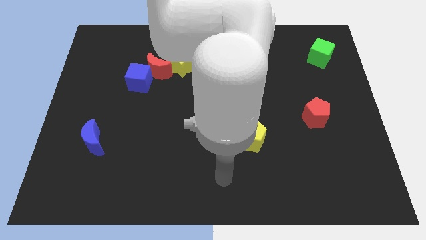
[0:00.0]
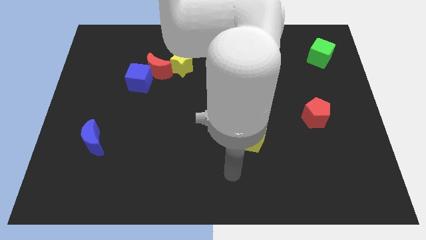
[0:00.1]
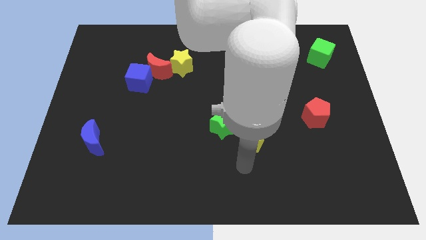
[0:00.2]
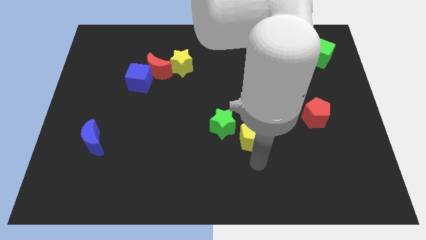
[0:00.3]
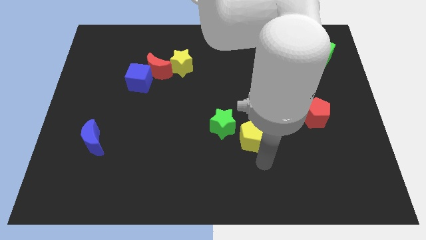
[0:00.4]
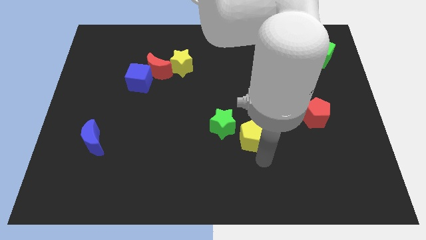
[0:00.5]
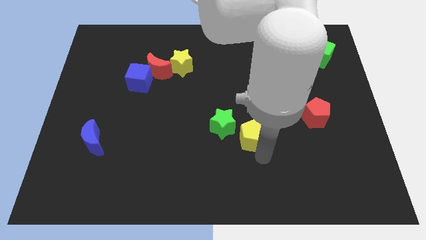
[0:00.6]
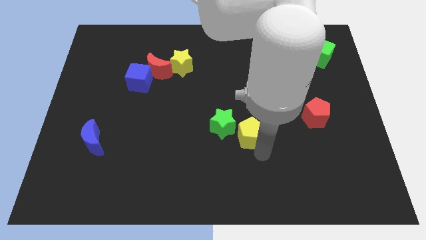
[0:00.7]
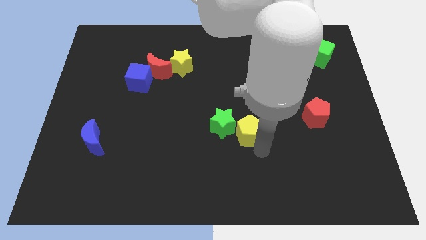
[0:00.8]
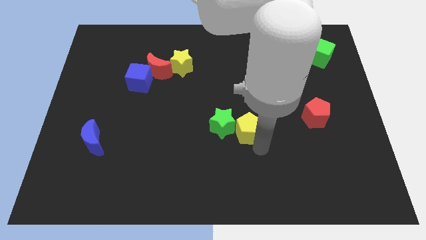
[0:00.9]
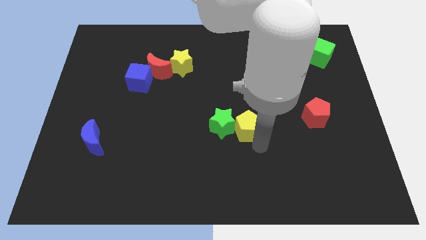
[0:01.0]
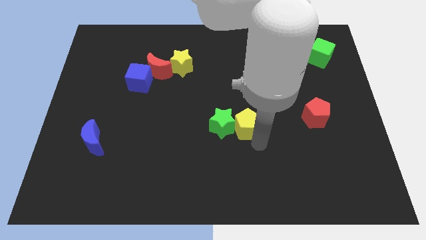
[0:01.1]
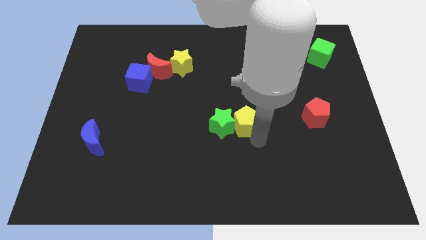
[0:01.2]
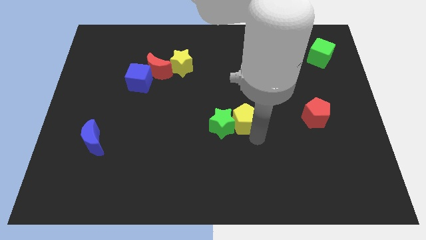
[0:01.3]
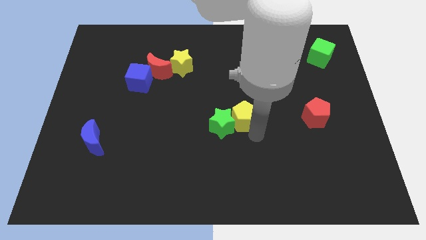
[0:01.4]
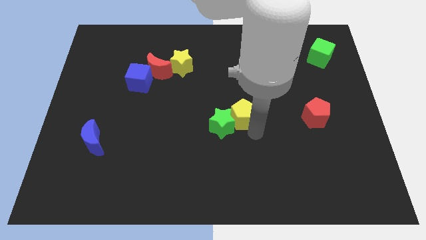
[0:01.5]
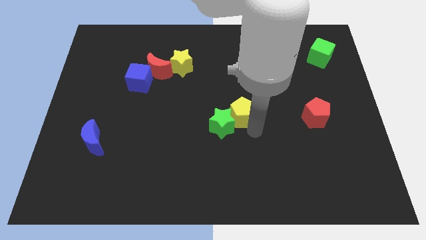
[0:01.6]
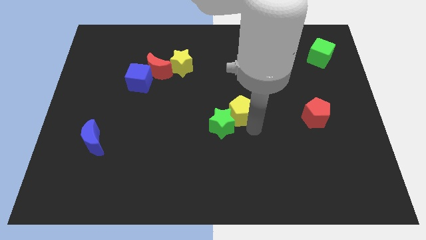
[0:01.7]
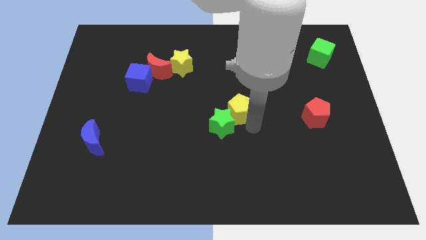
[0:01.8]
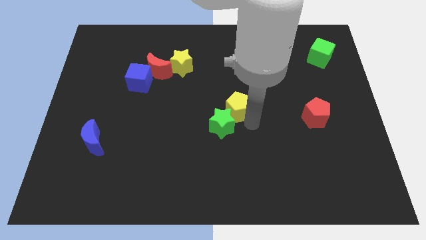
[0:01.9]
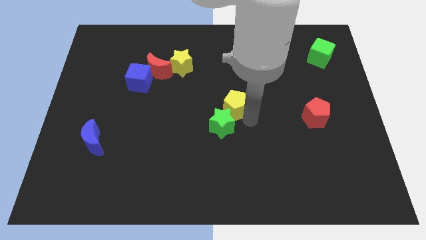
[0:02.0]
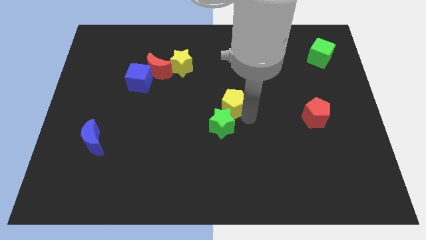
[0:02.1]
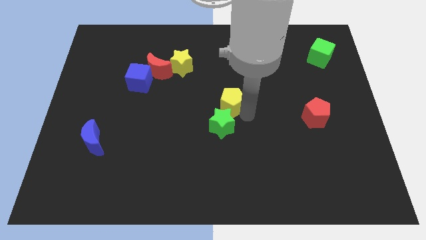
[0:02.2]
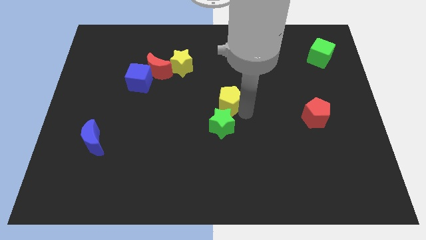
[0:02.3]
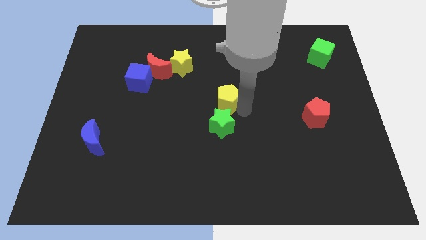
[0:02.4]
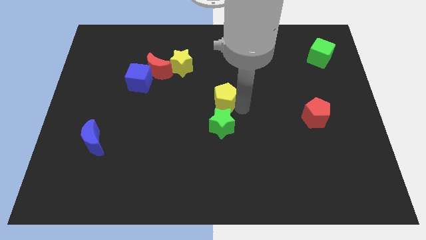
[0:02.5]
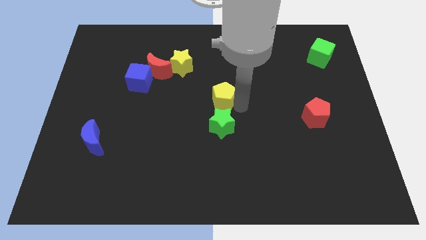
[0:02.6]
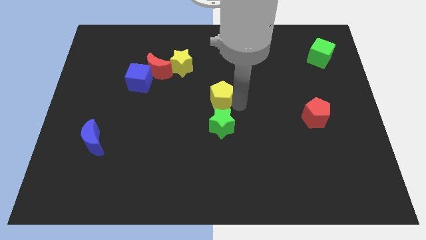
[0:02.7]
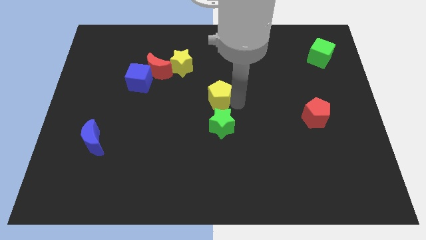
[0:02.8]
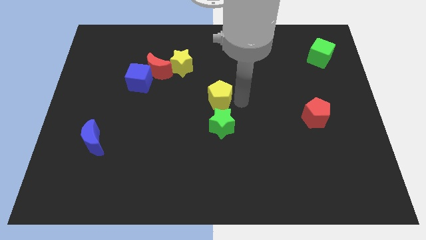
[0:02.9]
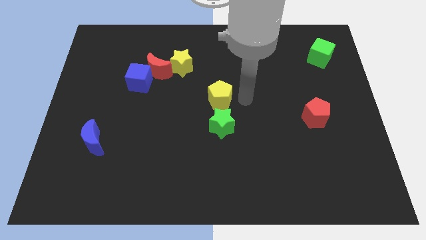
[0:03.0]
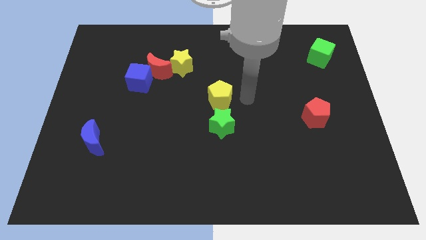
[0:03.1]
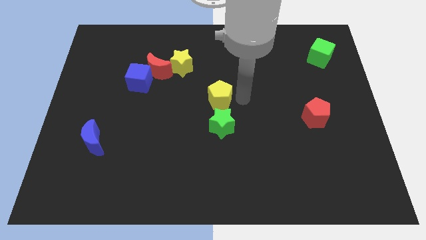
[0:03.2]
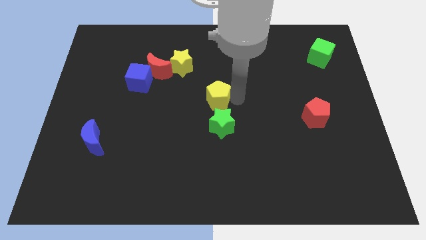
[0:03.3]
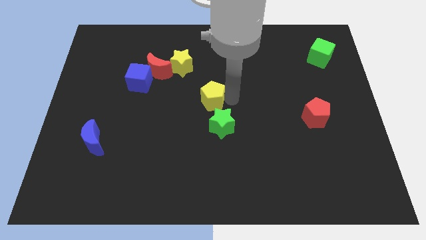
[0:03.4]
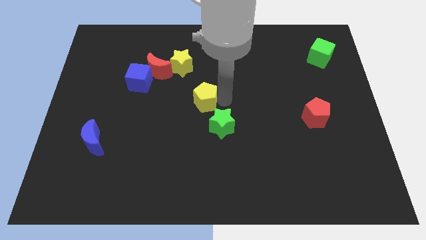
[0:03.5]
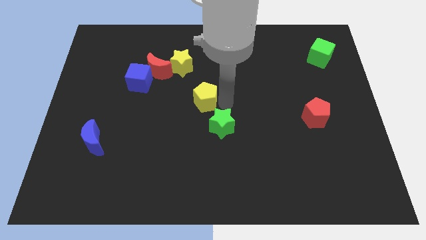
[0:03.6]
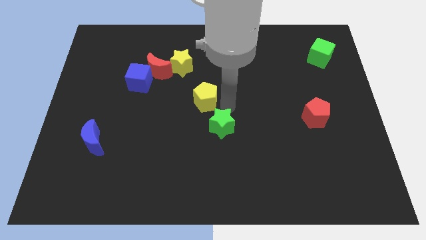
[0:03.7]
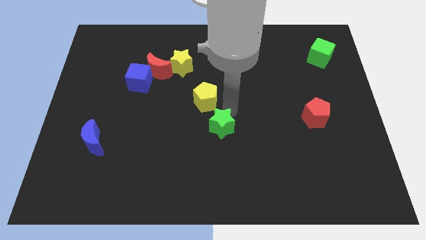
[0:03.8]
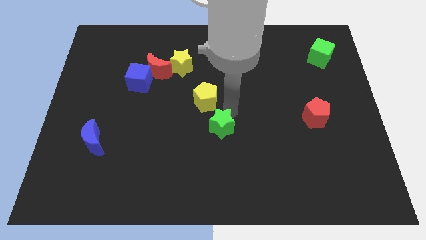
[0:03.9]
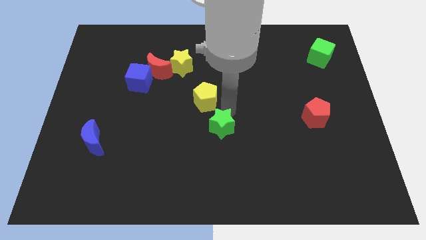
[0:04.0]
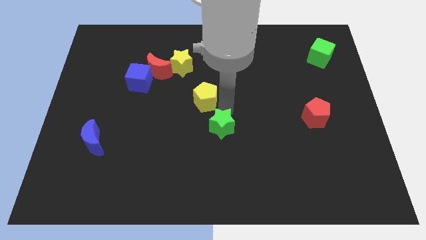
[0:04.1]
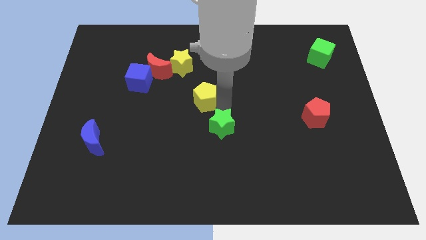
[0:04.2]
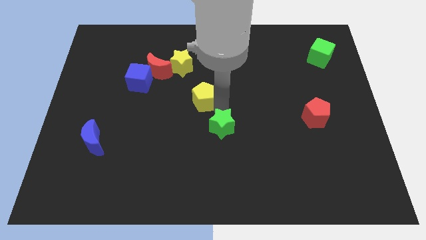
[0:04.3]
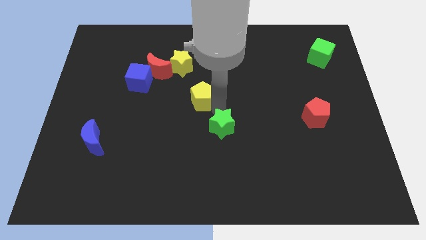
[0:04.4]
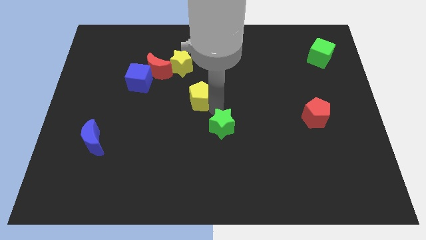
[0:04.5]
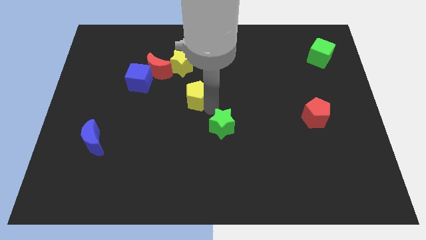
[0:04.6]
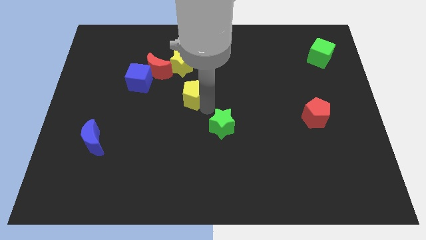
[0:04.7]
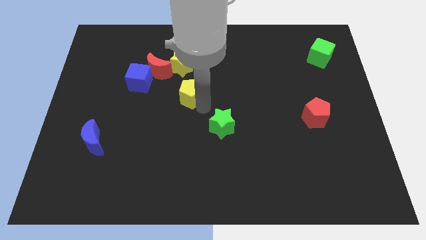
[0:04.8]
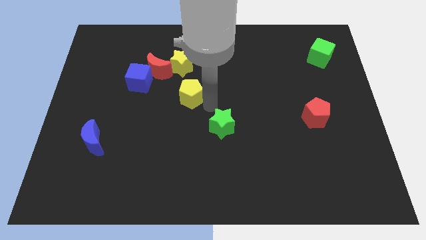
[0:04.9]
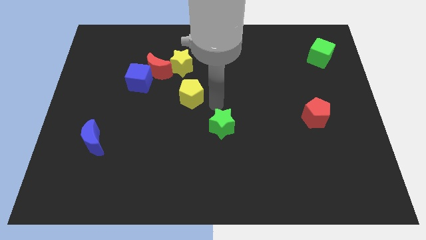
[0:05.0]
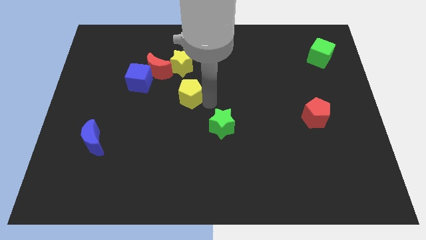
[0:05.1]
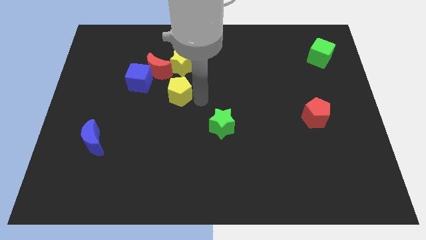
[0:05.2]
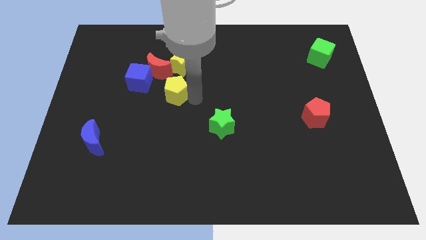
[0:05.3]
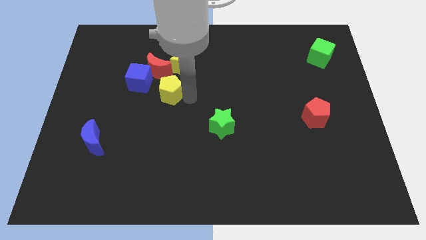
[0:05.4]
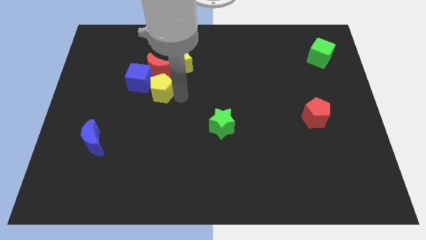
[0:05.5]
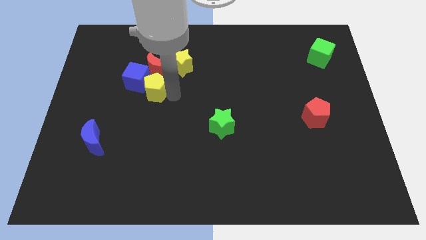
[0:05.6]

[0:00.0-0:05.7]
push the yellow pentagon next to the blue cube

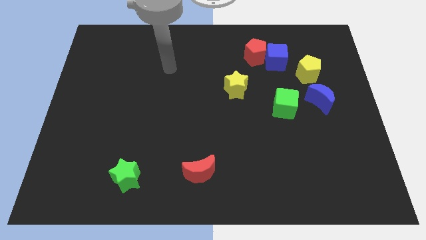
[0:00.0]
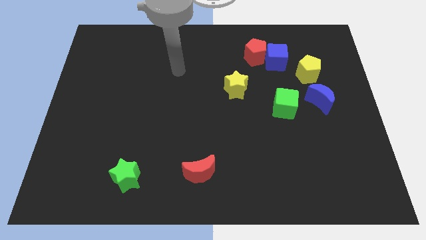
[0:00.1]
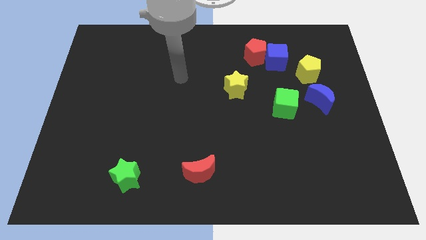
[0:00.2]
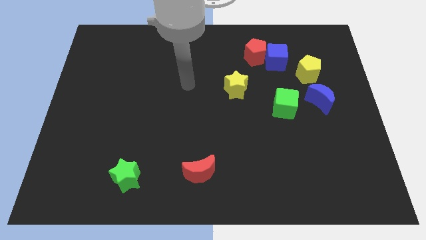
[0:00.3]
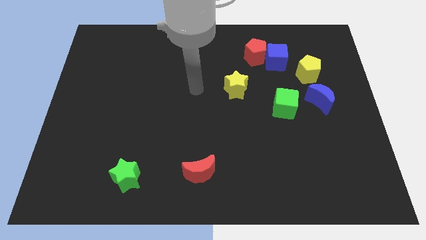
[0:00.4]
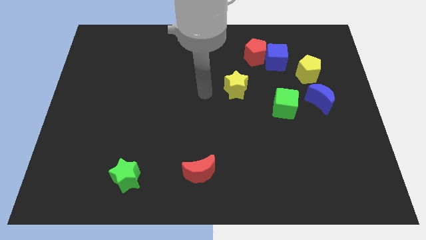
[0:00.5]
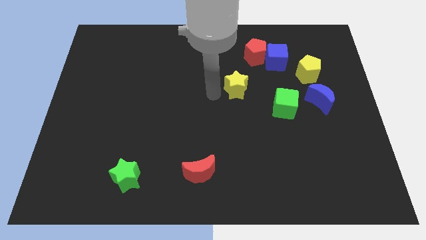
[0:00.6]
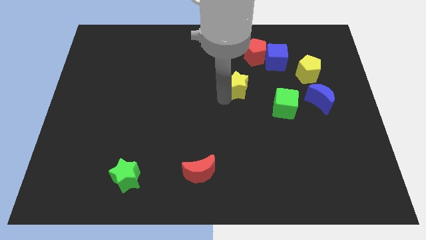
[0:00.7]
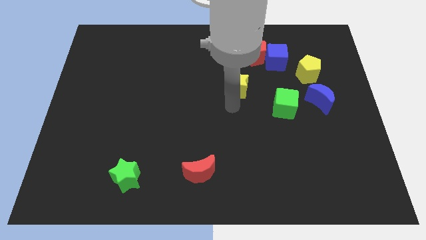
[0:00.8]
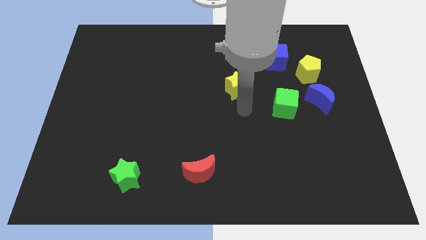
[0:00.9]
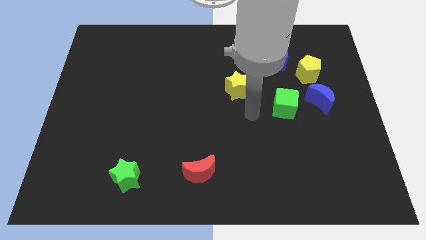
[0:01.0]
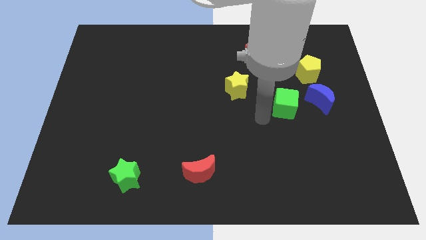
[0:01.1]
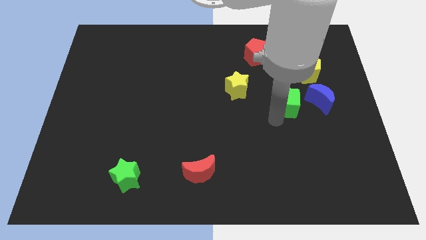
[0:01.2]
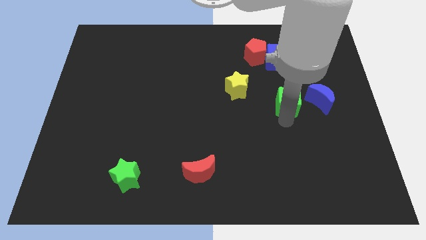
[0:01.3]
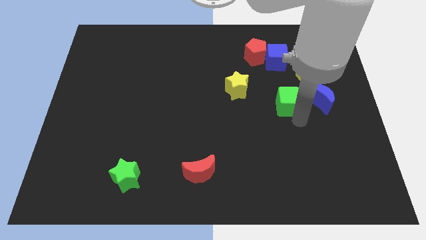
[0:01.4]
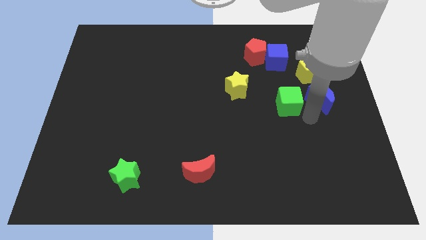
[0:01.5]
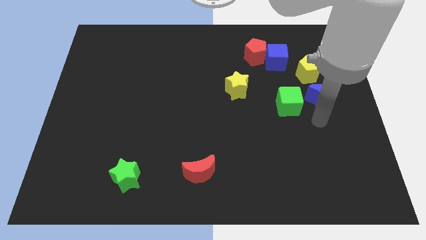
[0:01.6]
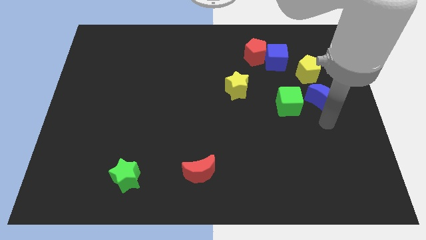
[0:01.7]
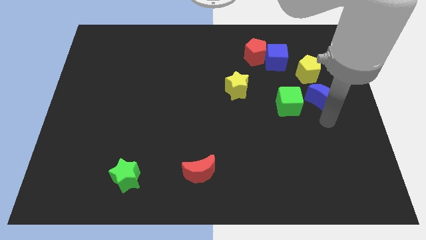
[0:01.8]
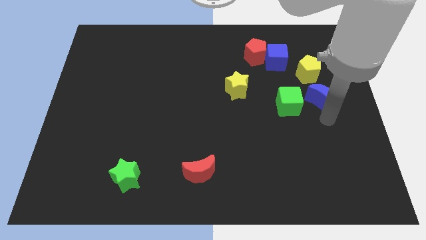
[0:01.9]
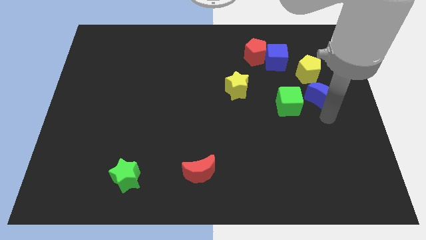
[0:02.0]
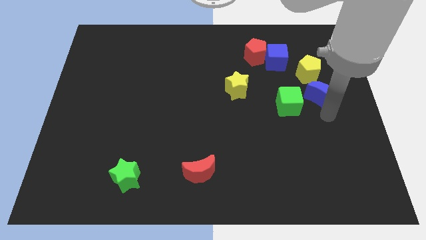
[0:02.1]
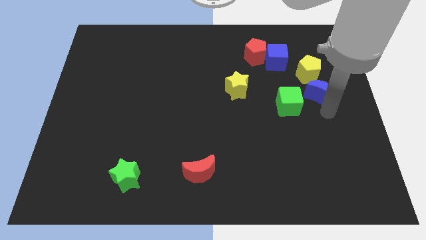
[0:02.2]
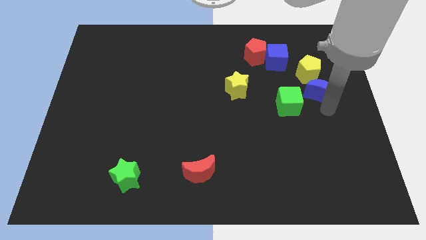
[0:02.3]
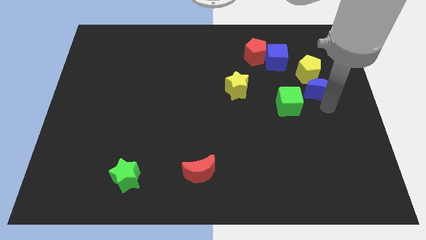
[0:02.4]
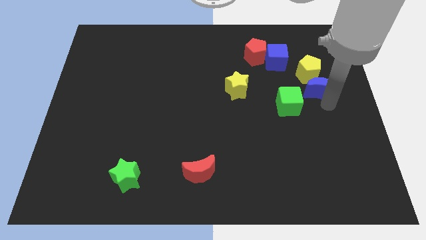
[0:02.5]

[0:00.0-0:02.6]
move the blue moon next to the yellow pentagon

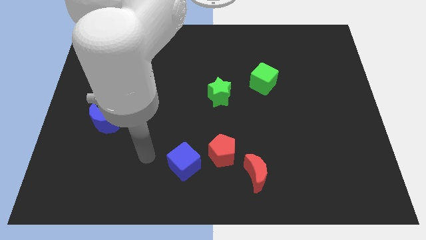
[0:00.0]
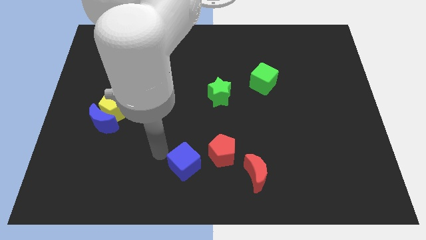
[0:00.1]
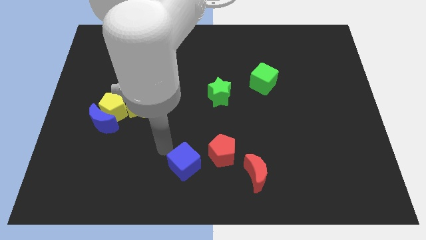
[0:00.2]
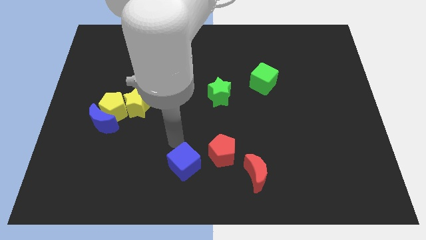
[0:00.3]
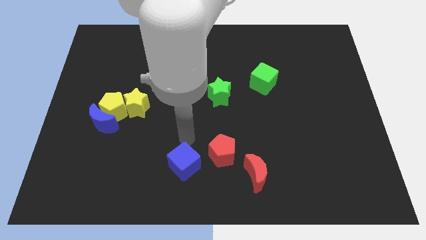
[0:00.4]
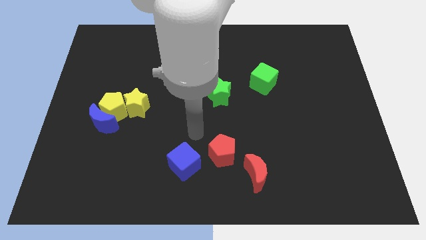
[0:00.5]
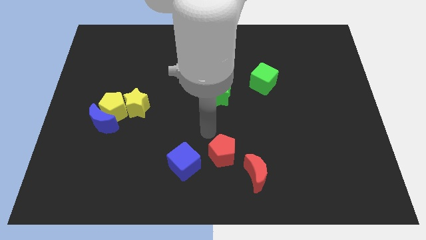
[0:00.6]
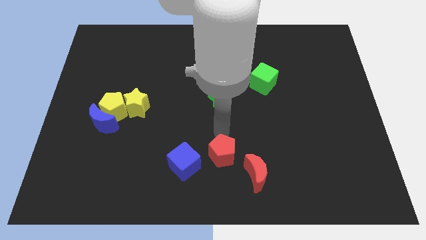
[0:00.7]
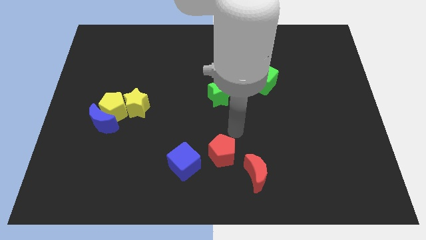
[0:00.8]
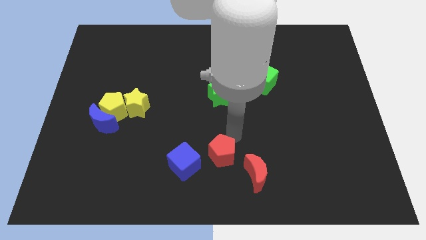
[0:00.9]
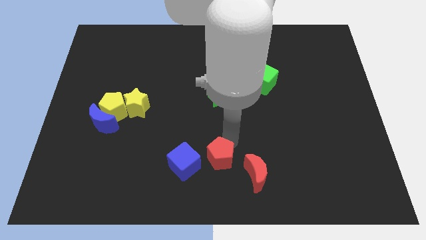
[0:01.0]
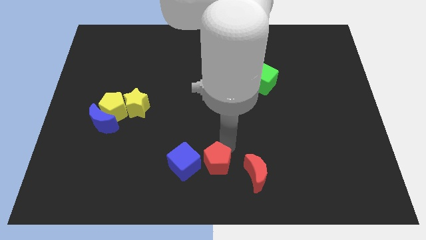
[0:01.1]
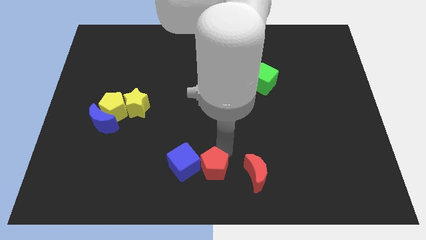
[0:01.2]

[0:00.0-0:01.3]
move the red pentagon towards the blue cube
